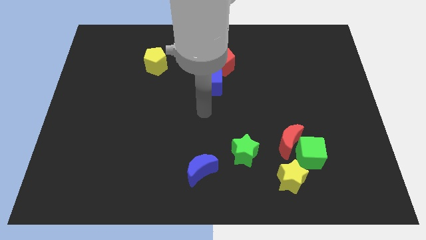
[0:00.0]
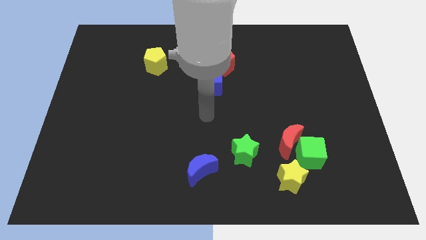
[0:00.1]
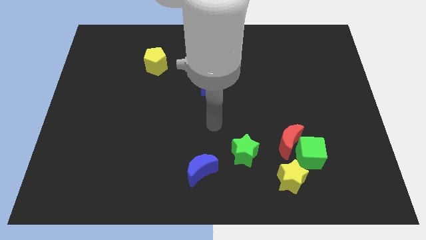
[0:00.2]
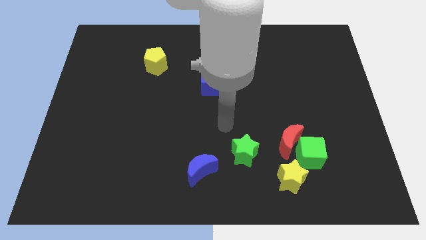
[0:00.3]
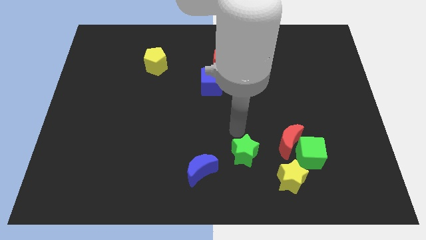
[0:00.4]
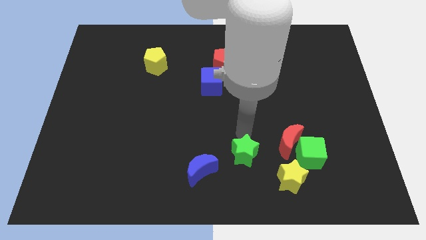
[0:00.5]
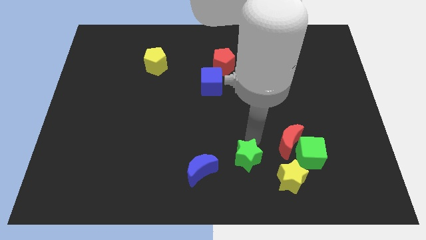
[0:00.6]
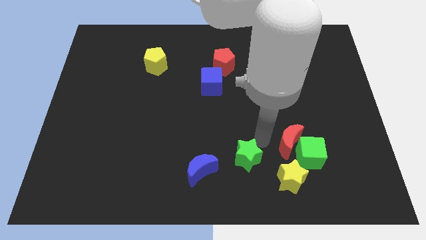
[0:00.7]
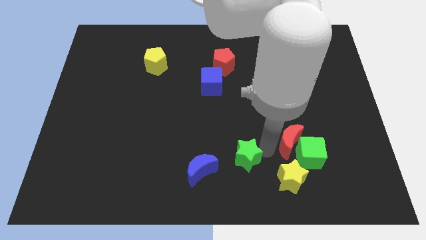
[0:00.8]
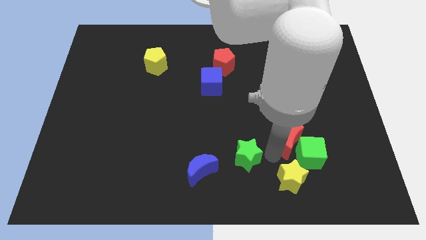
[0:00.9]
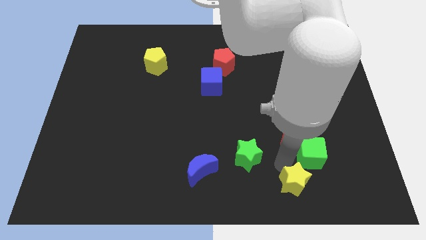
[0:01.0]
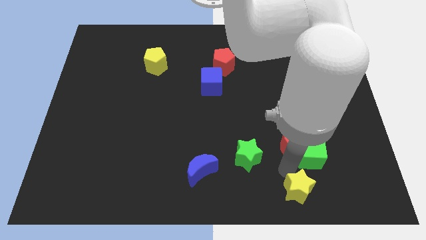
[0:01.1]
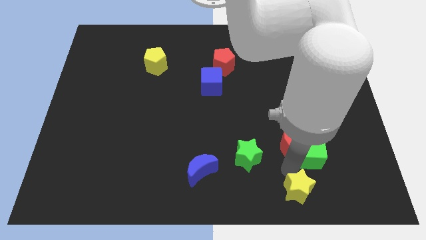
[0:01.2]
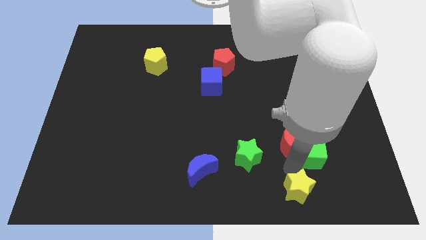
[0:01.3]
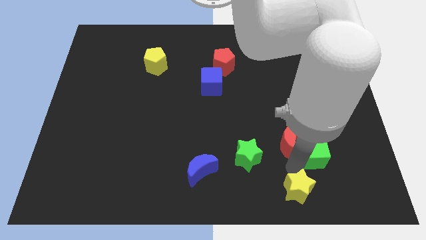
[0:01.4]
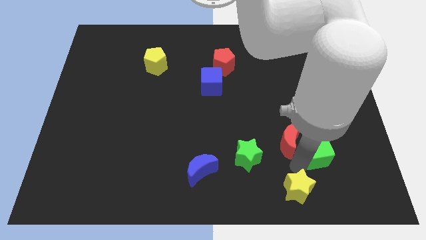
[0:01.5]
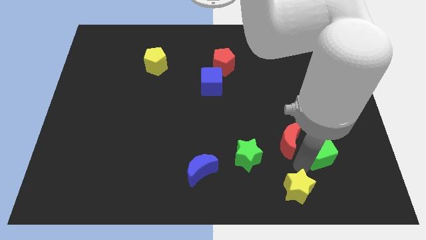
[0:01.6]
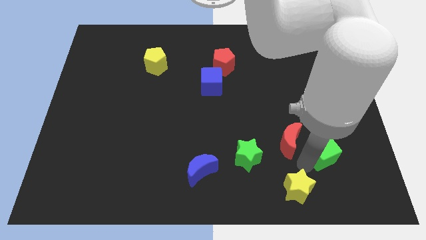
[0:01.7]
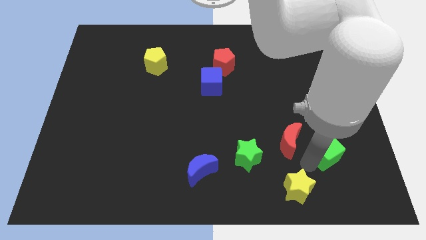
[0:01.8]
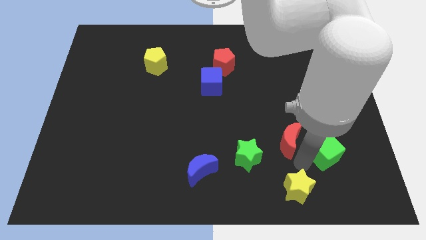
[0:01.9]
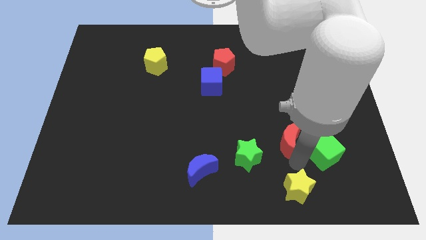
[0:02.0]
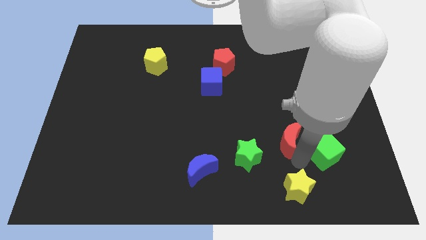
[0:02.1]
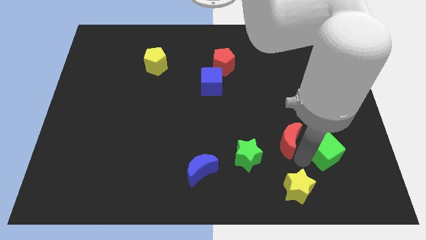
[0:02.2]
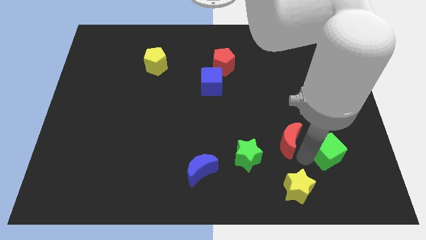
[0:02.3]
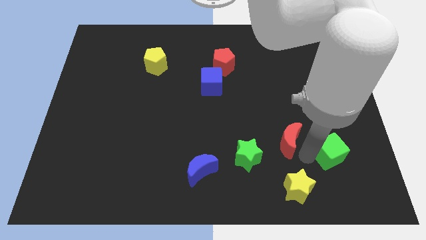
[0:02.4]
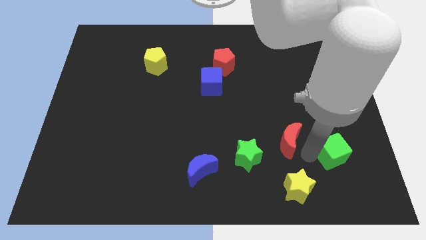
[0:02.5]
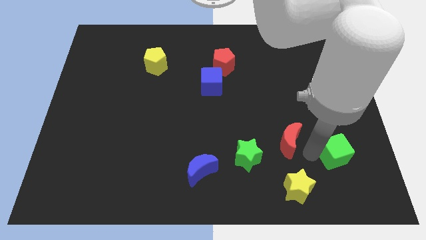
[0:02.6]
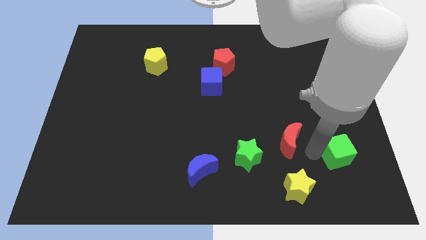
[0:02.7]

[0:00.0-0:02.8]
separate the green cube from the red moon and yellow star

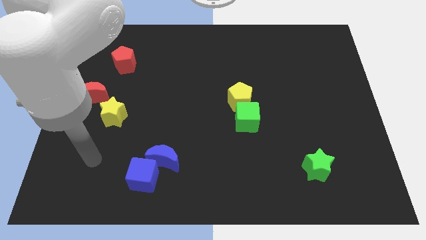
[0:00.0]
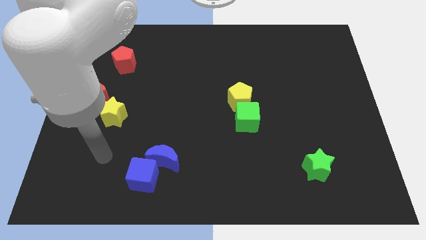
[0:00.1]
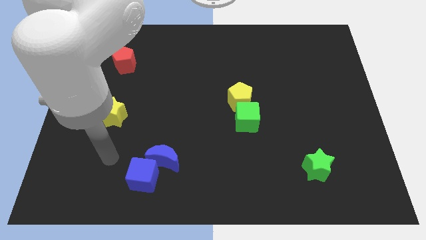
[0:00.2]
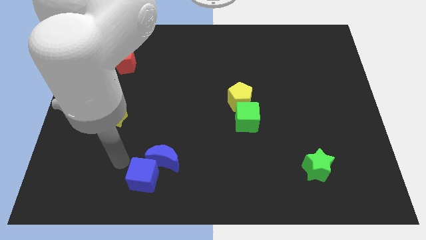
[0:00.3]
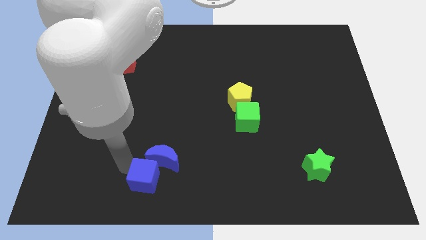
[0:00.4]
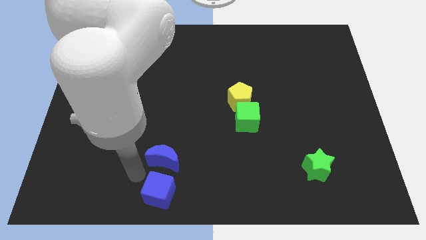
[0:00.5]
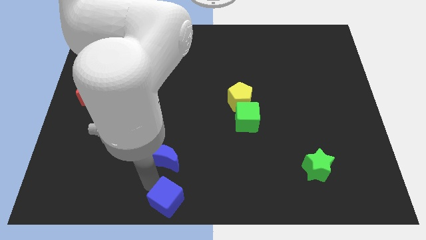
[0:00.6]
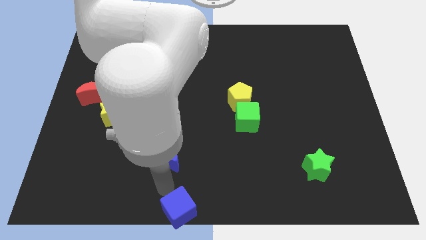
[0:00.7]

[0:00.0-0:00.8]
pull the blue moon apart from the blue cube

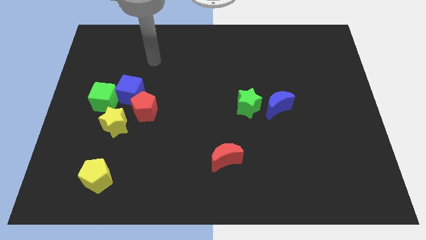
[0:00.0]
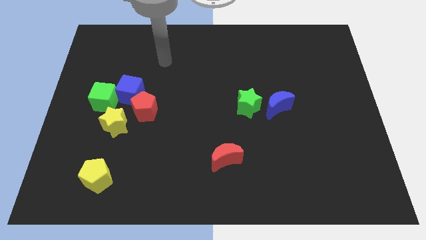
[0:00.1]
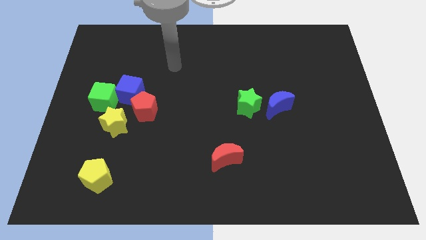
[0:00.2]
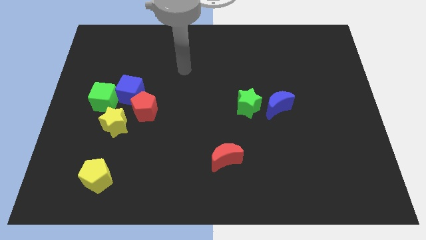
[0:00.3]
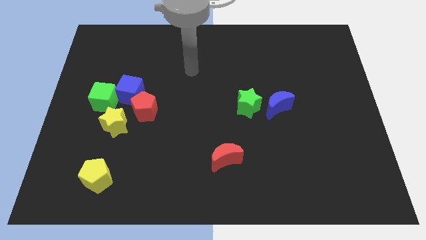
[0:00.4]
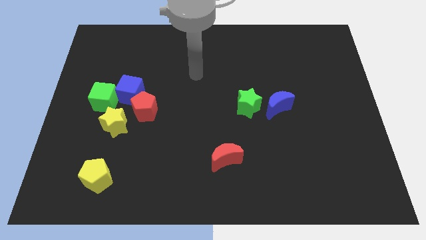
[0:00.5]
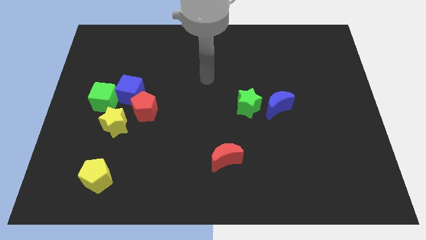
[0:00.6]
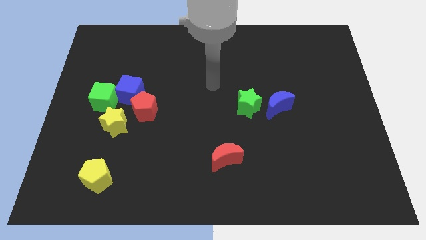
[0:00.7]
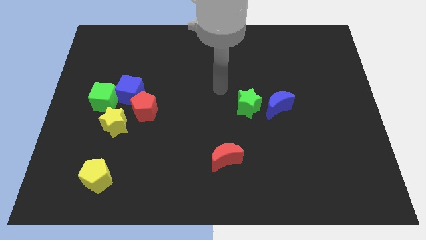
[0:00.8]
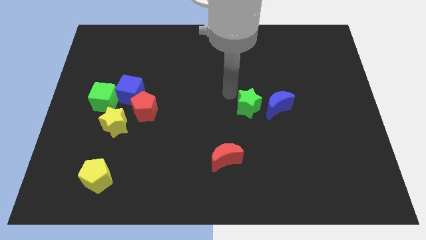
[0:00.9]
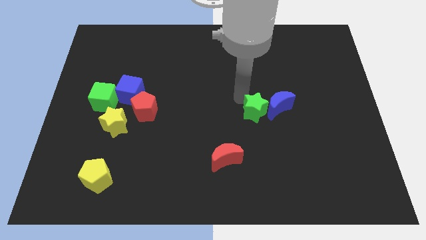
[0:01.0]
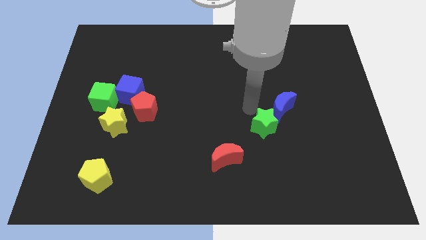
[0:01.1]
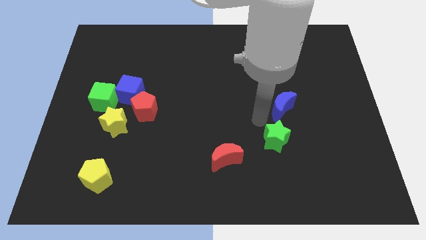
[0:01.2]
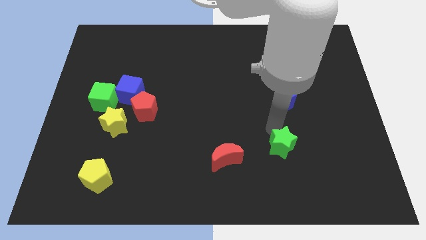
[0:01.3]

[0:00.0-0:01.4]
pull the blue moon apart from the green star

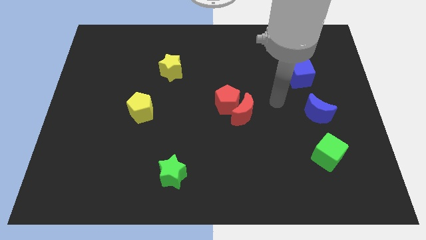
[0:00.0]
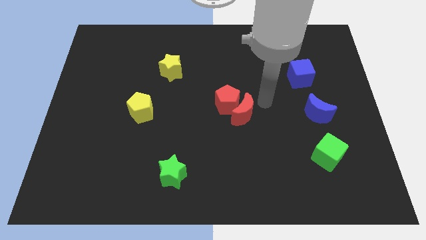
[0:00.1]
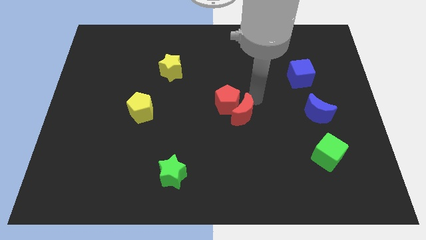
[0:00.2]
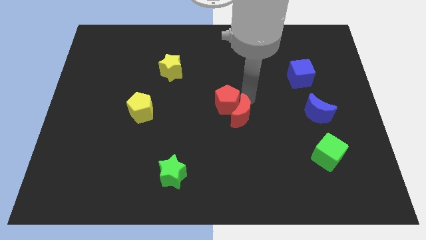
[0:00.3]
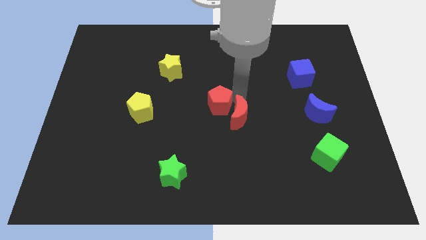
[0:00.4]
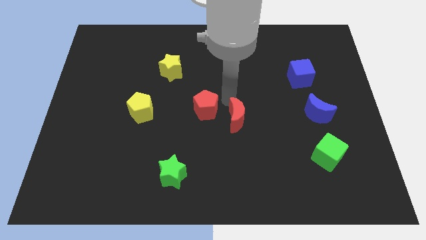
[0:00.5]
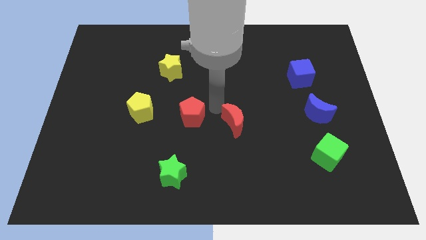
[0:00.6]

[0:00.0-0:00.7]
separate the red moon from the red pentagon

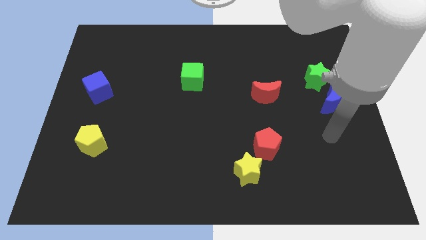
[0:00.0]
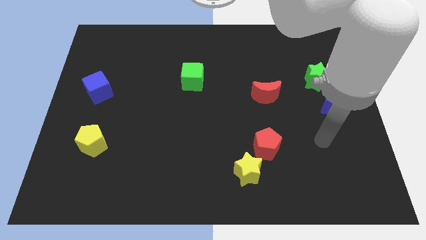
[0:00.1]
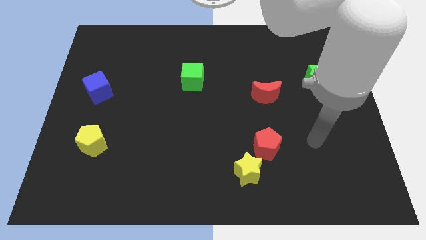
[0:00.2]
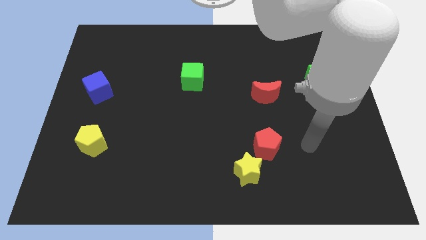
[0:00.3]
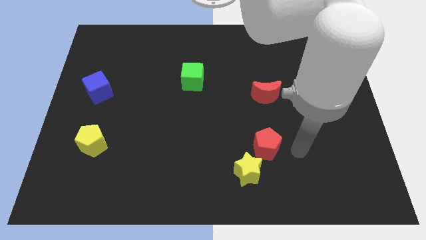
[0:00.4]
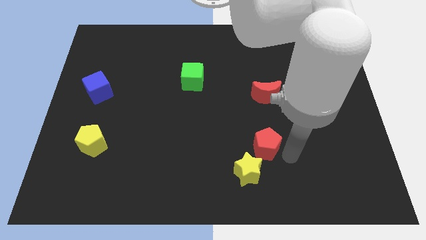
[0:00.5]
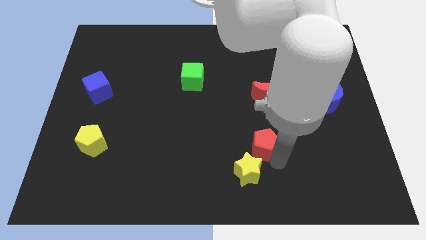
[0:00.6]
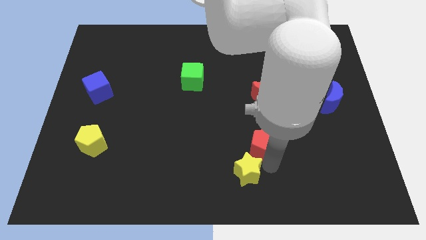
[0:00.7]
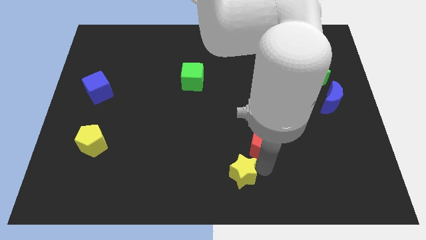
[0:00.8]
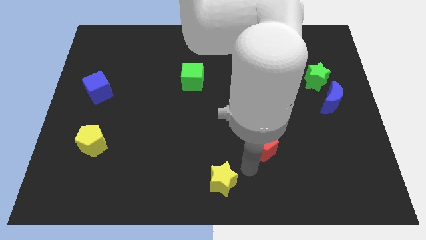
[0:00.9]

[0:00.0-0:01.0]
separate the red pentagon from the yellow star

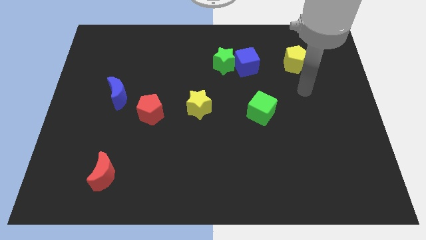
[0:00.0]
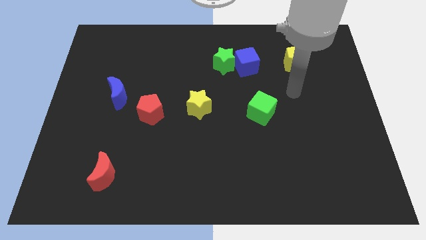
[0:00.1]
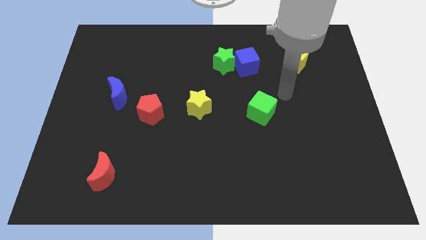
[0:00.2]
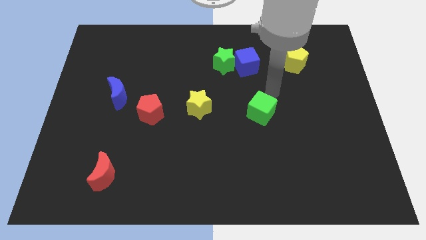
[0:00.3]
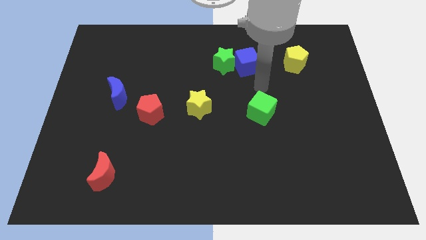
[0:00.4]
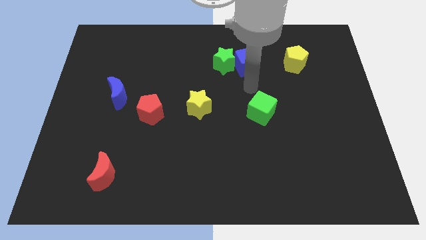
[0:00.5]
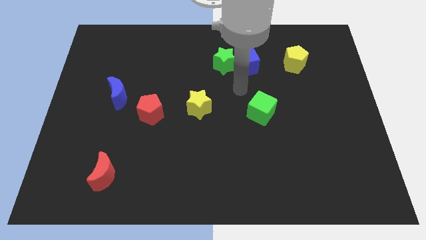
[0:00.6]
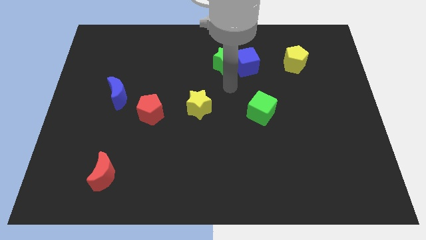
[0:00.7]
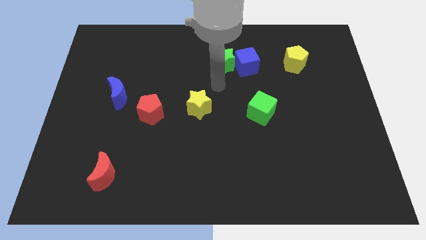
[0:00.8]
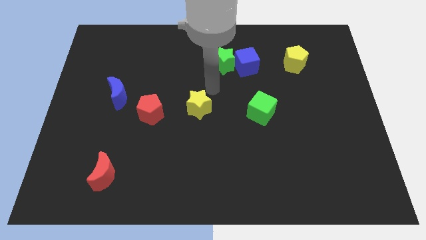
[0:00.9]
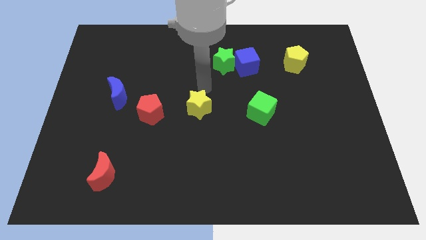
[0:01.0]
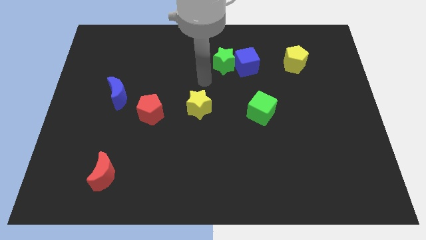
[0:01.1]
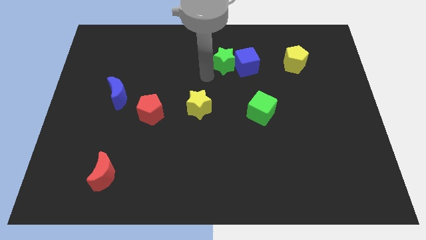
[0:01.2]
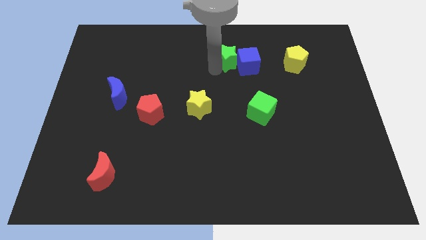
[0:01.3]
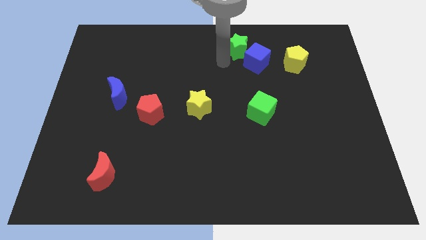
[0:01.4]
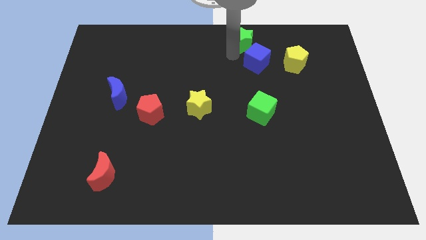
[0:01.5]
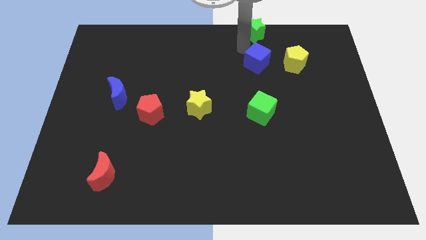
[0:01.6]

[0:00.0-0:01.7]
move the blue cube away from the green star

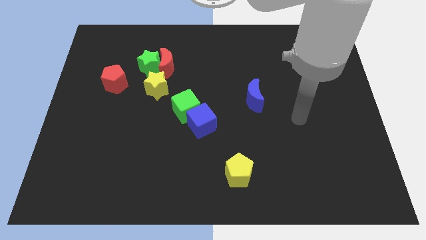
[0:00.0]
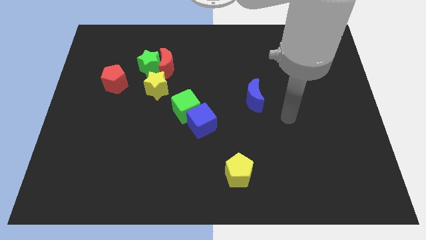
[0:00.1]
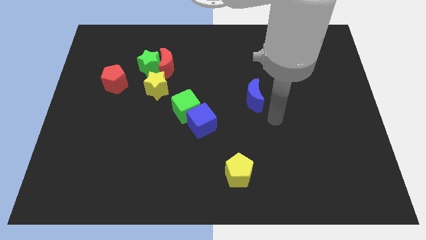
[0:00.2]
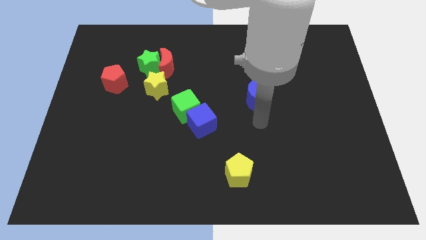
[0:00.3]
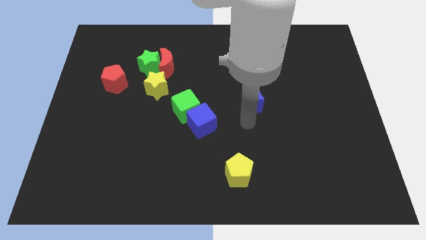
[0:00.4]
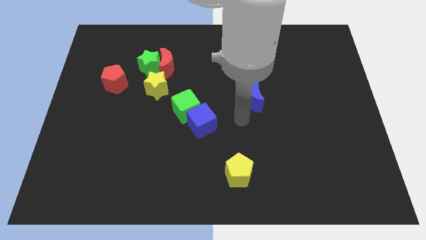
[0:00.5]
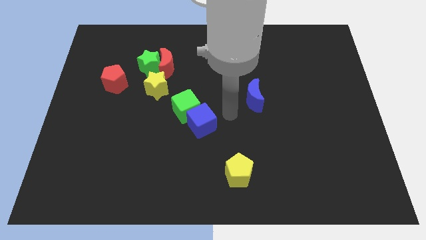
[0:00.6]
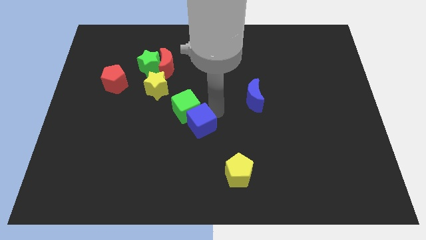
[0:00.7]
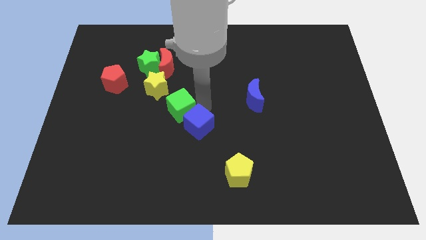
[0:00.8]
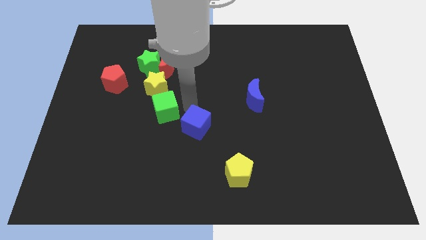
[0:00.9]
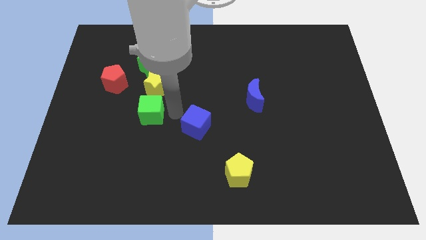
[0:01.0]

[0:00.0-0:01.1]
move the blue cube away from the green cube
